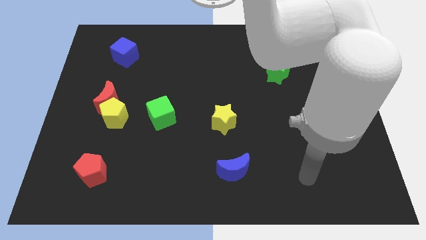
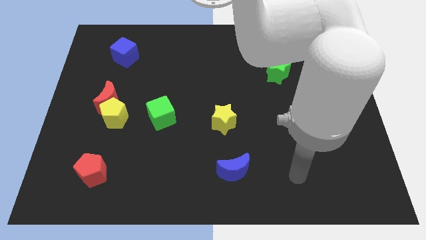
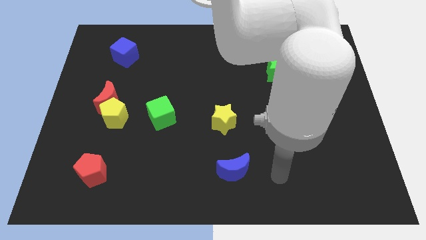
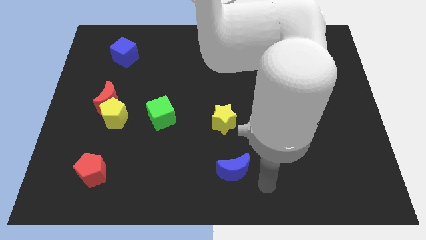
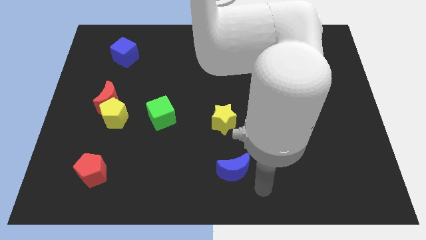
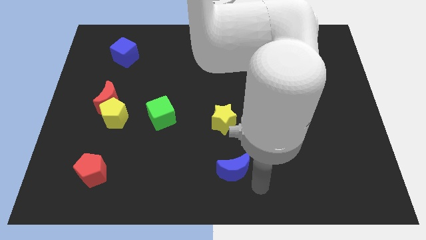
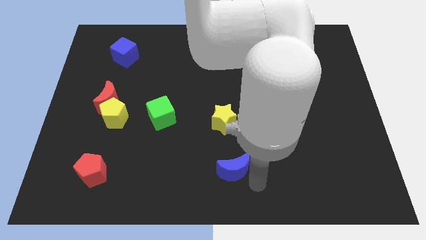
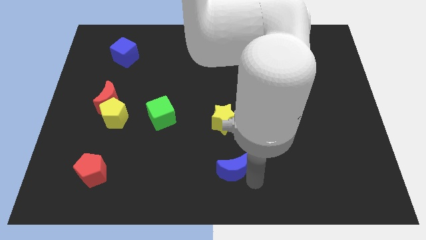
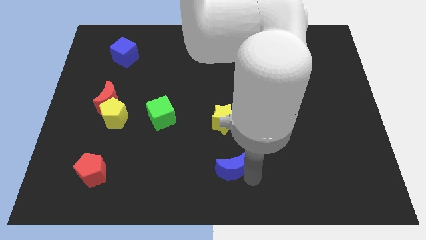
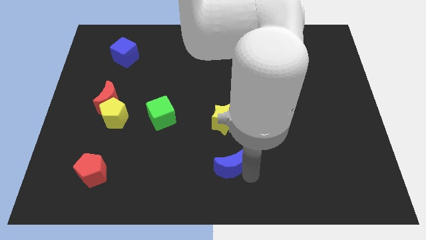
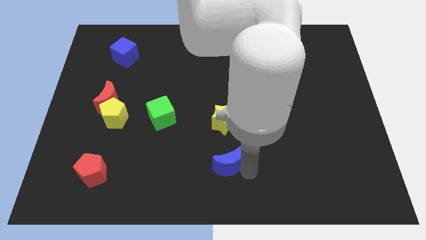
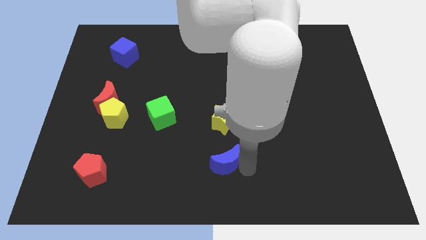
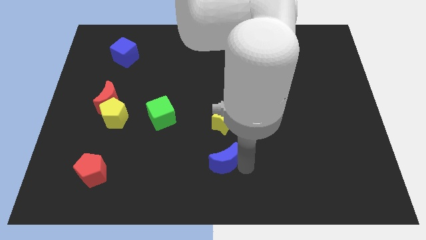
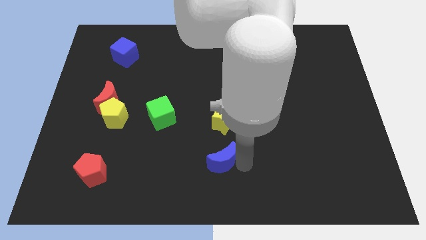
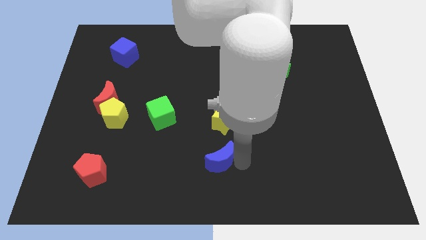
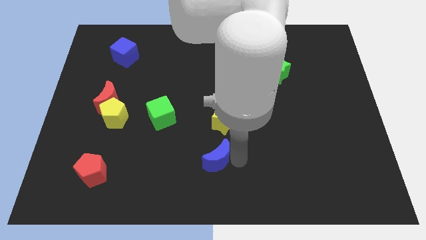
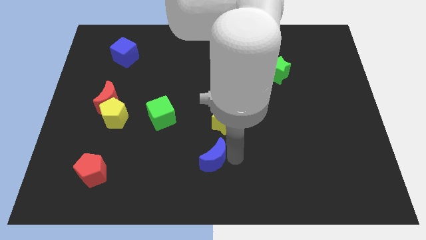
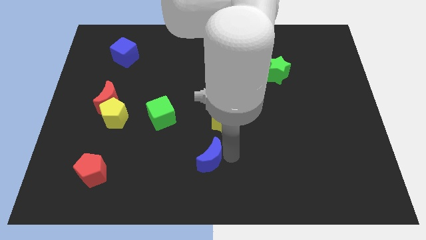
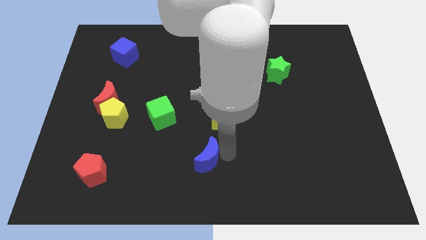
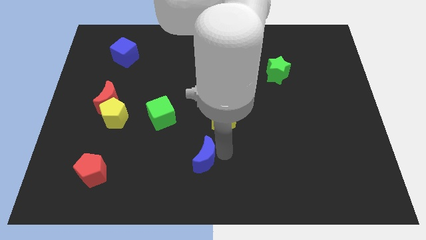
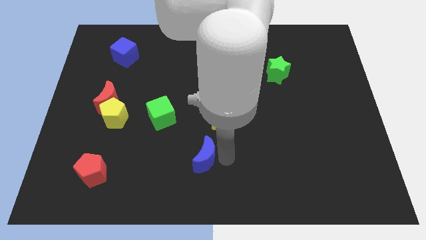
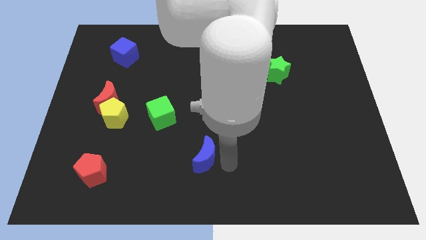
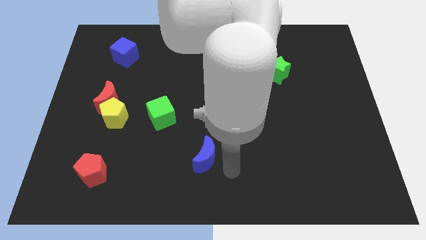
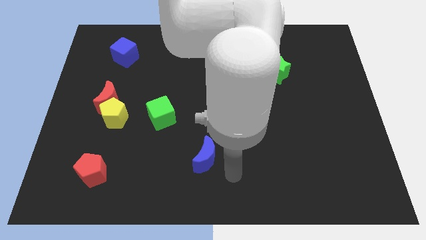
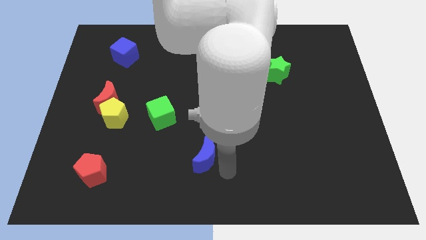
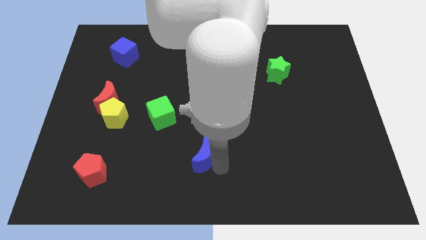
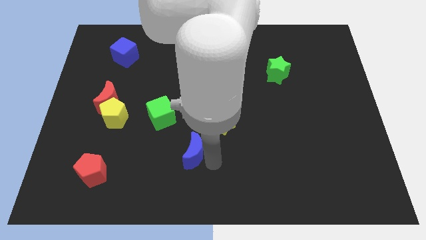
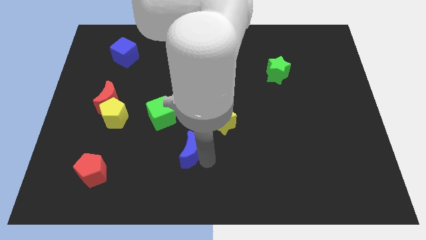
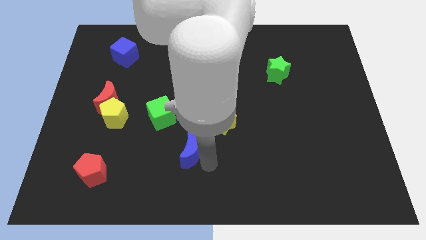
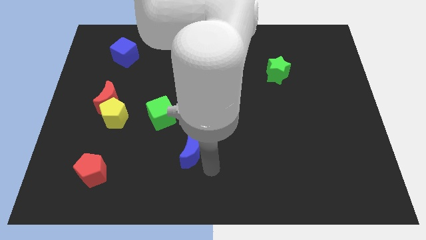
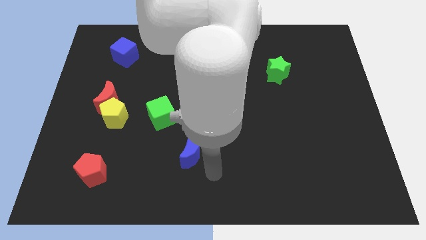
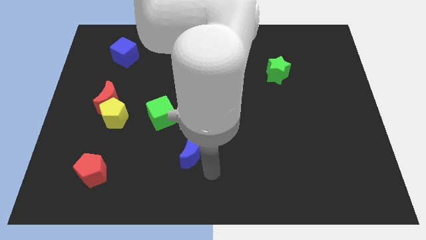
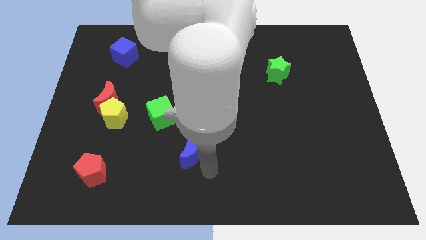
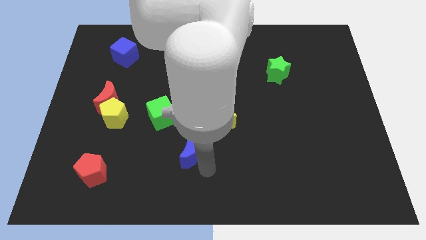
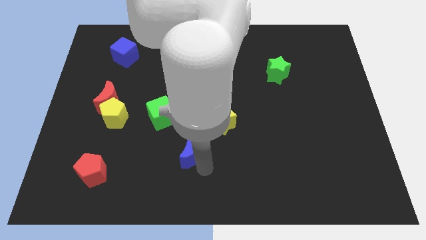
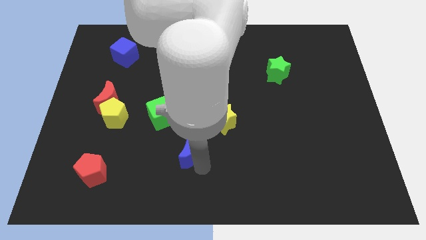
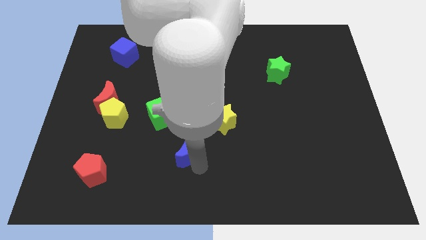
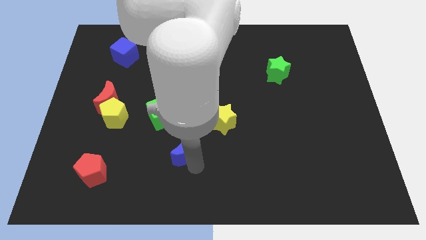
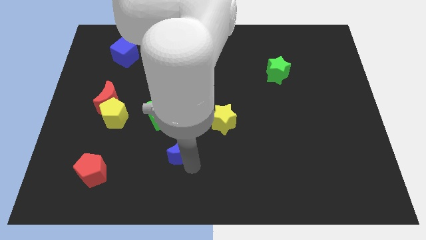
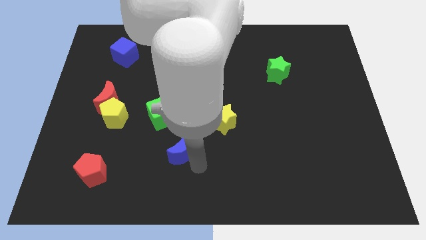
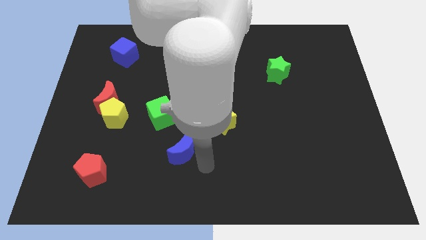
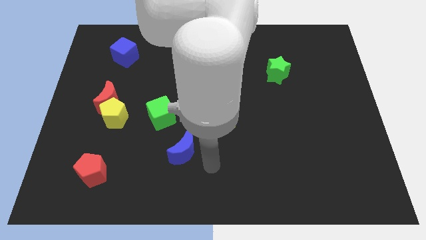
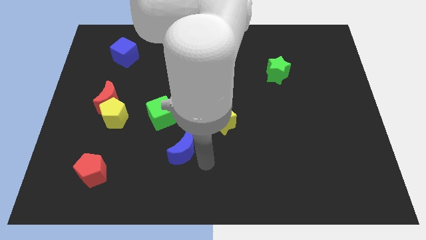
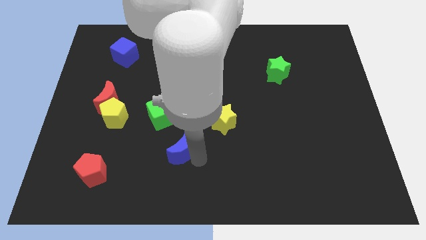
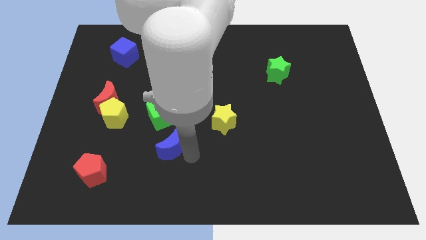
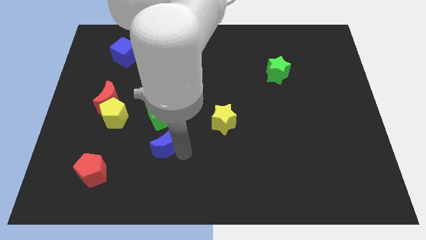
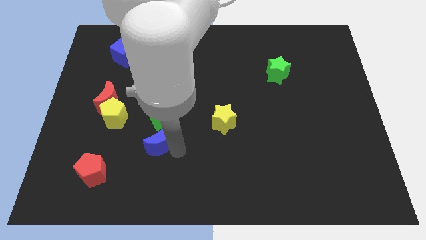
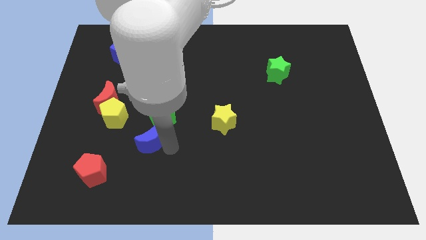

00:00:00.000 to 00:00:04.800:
move the blue moon to the bottom right of the yellow pentagon

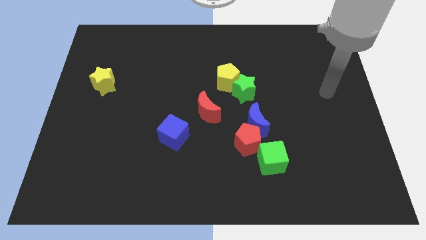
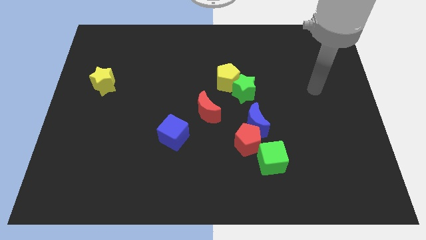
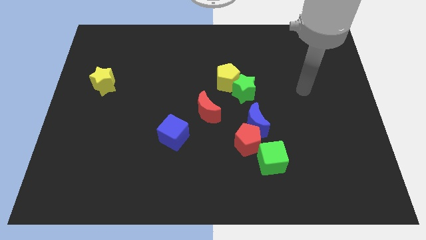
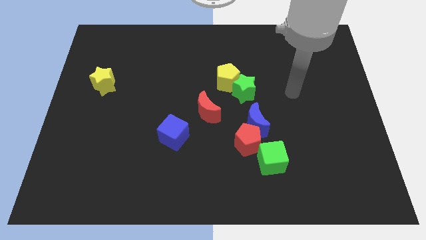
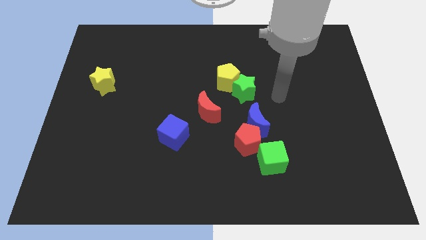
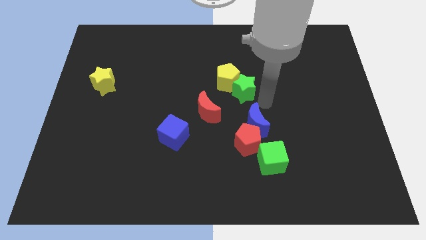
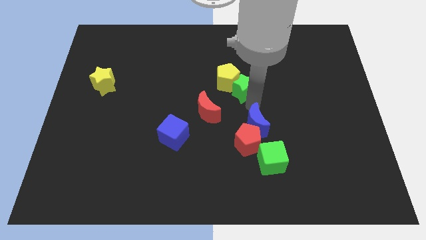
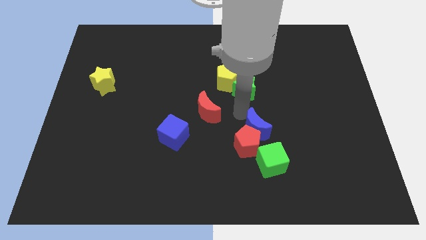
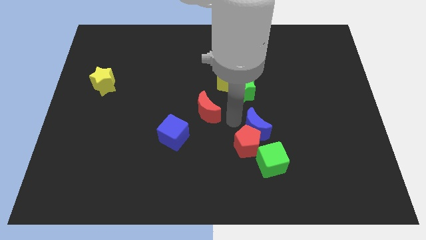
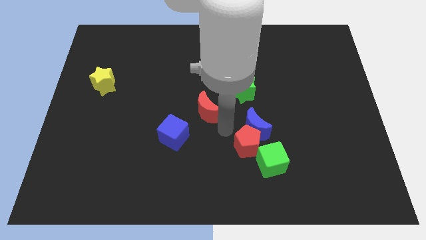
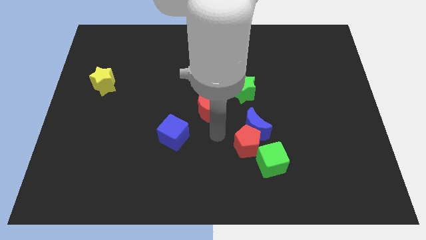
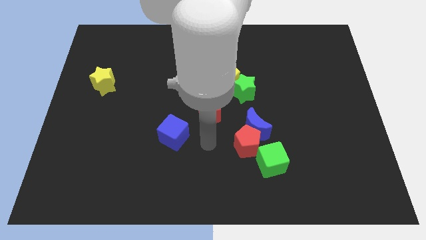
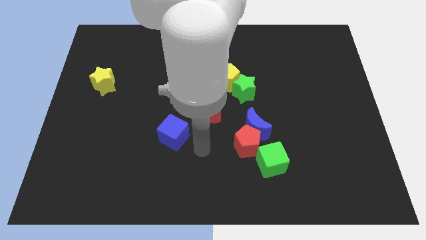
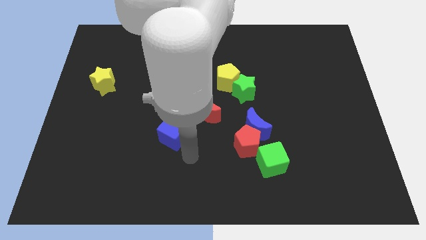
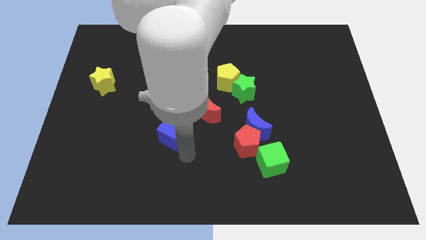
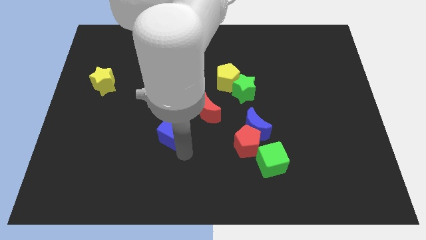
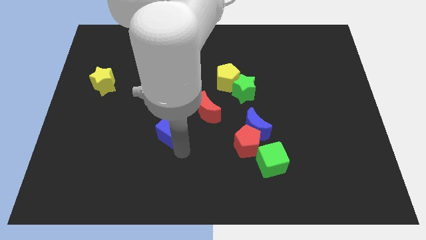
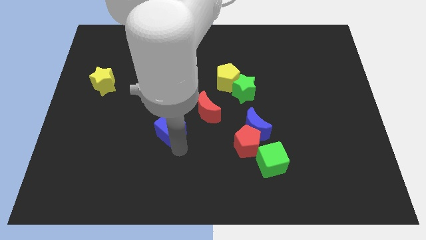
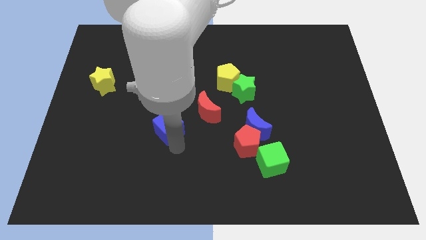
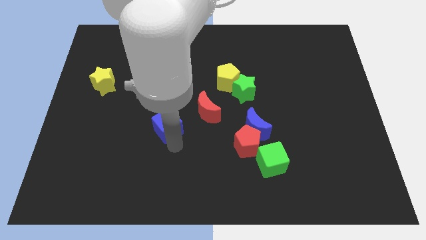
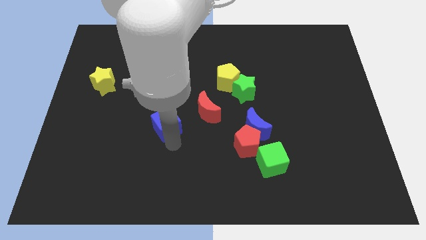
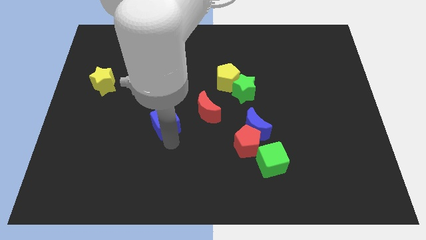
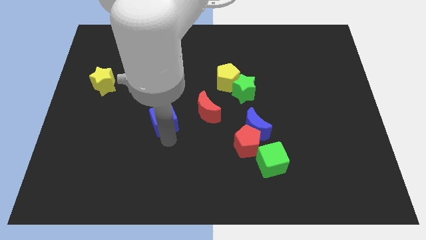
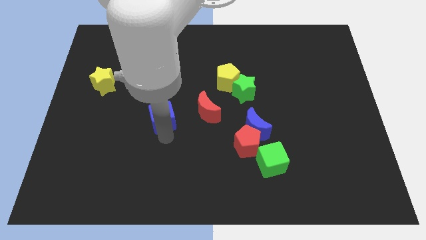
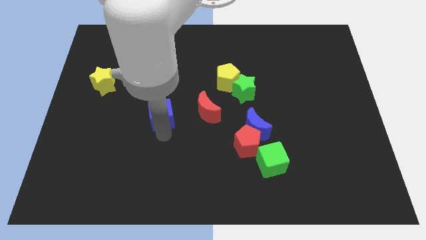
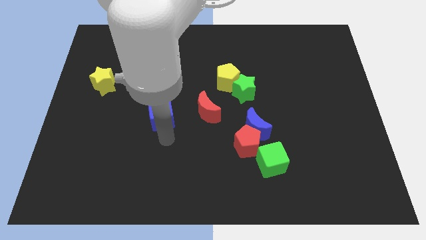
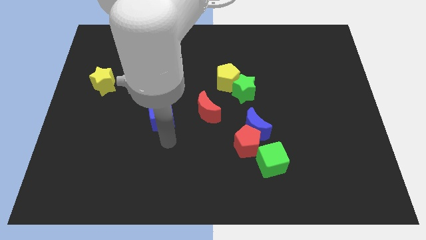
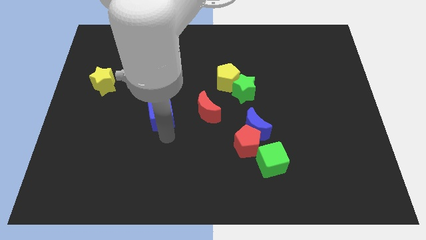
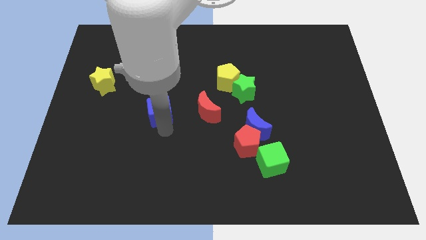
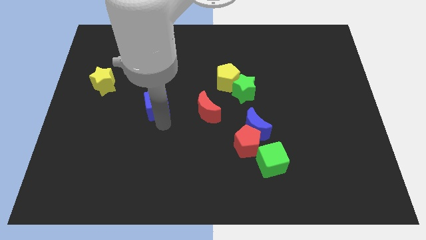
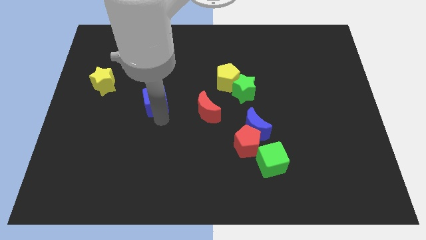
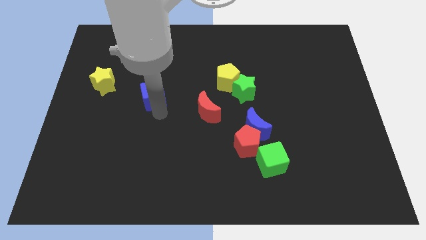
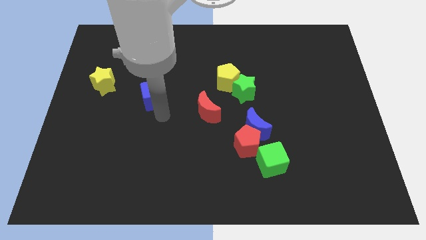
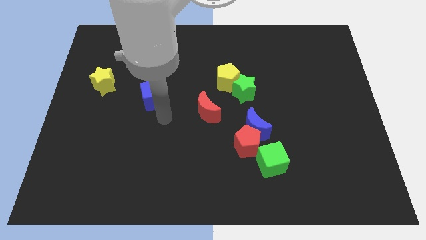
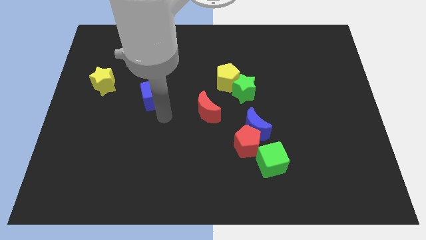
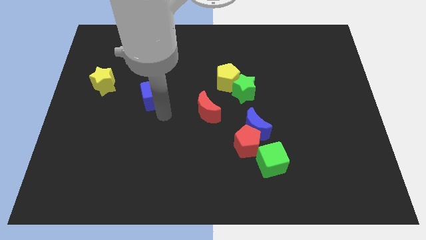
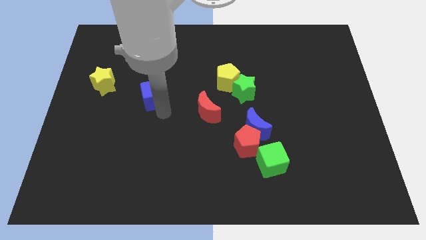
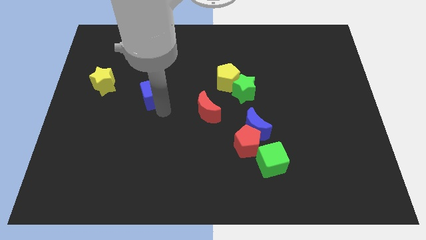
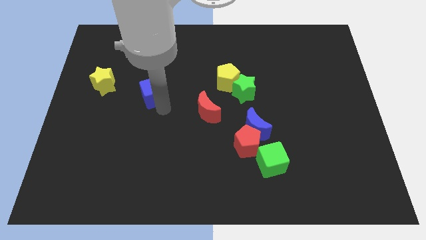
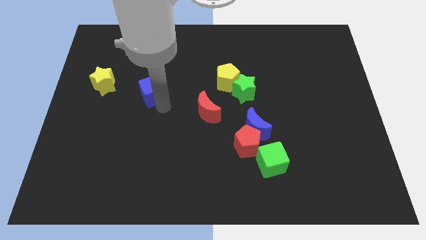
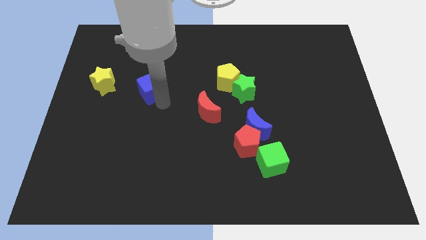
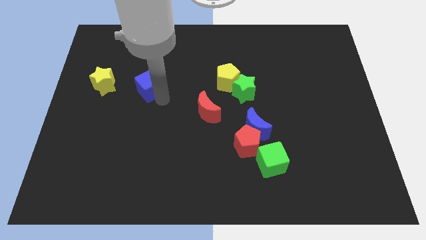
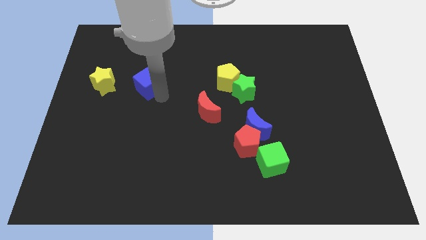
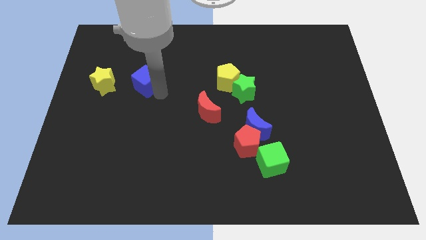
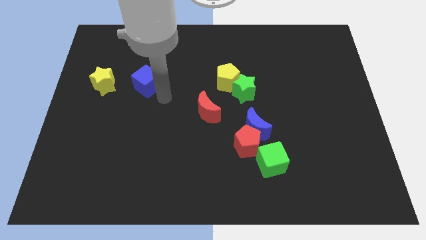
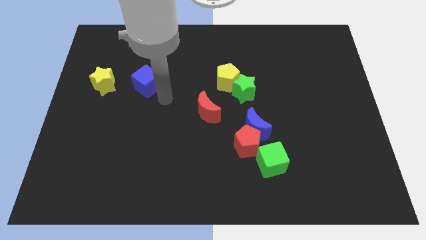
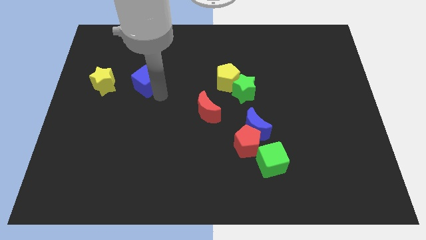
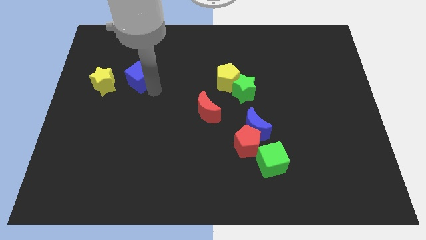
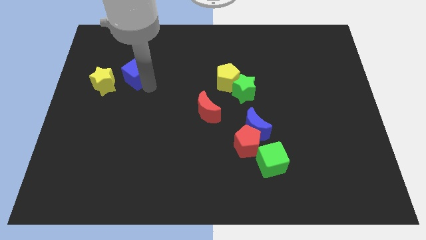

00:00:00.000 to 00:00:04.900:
move the blue cube diagonally up and to the right of the yellow star
